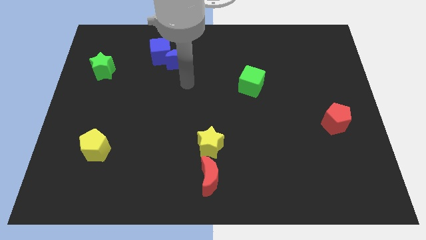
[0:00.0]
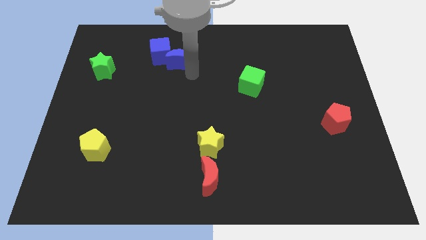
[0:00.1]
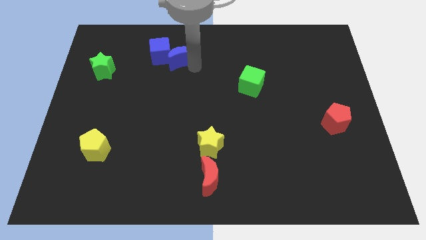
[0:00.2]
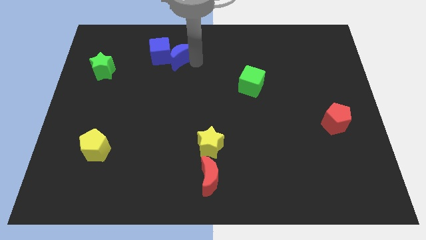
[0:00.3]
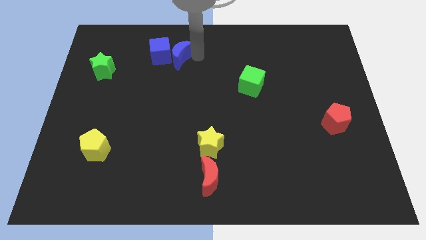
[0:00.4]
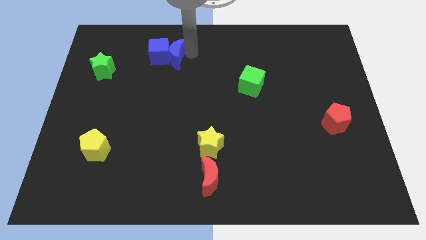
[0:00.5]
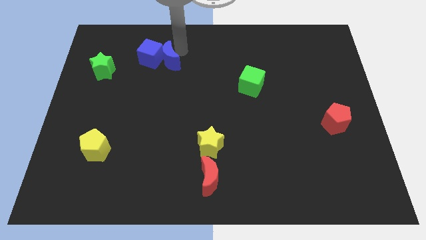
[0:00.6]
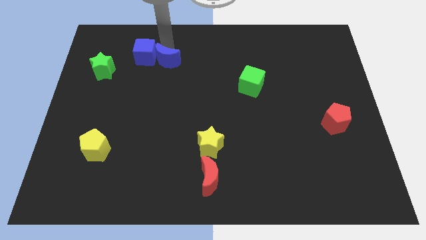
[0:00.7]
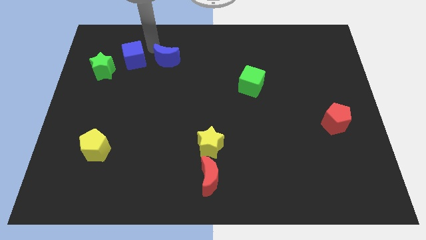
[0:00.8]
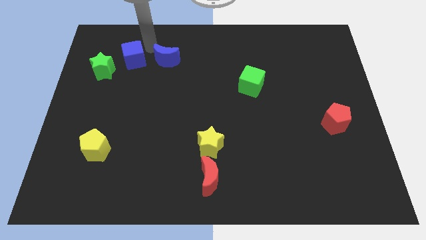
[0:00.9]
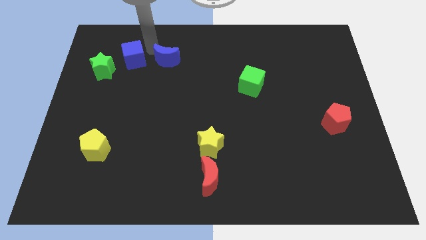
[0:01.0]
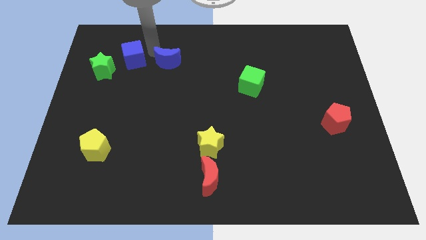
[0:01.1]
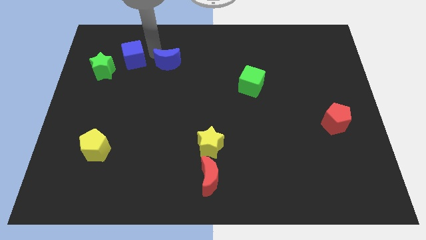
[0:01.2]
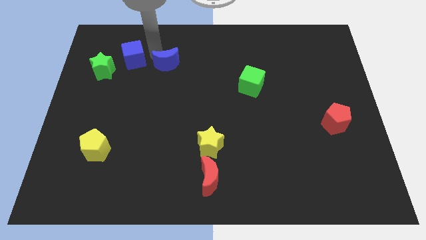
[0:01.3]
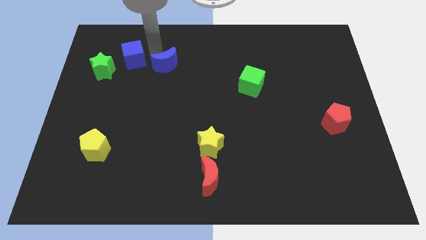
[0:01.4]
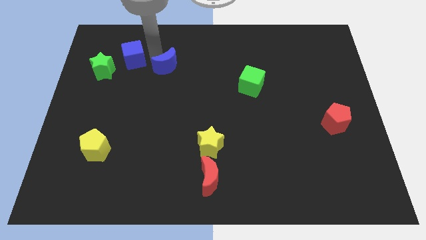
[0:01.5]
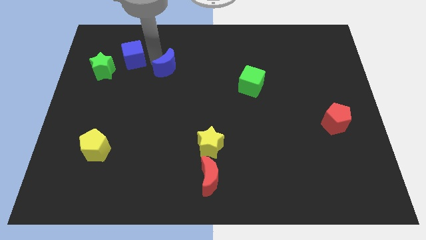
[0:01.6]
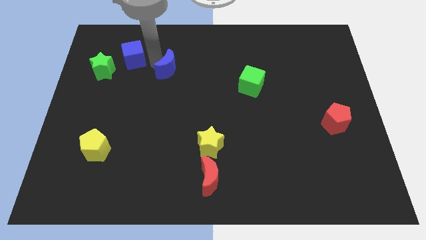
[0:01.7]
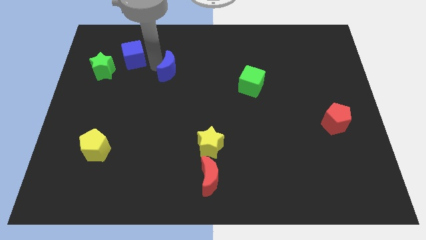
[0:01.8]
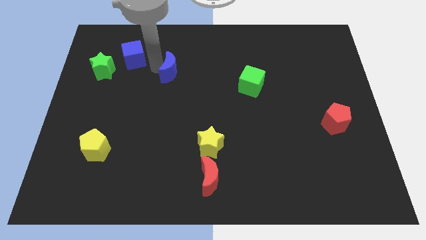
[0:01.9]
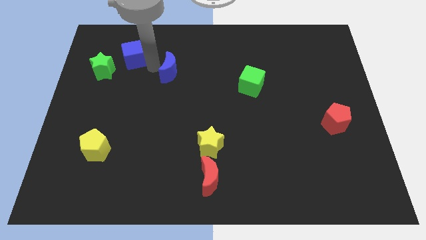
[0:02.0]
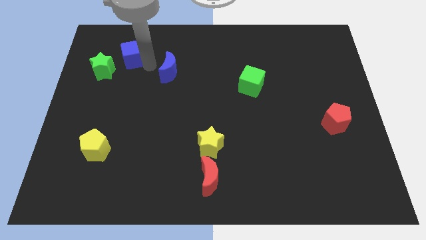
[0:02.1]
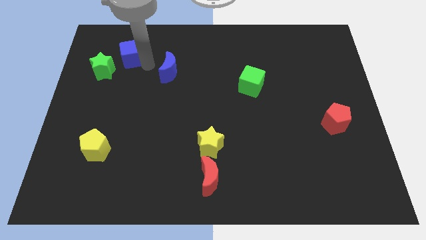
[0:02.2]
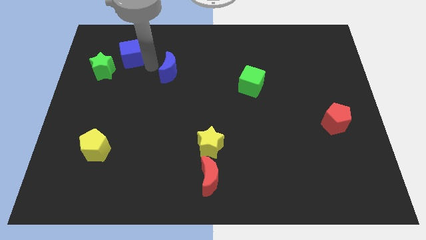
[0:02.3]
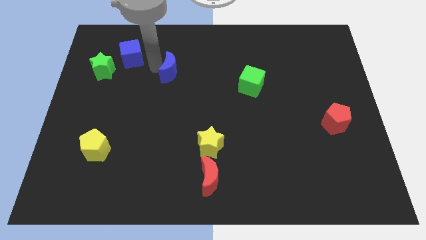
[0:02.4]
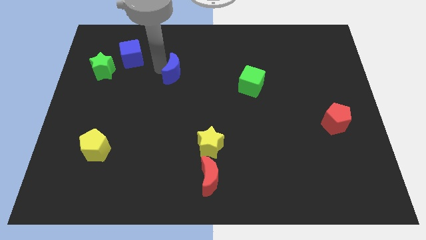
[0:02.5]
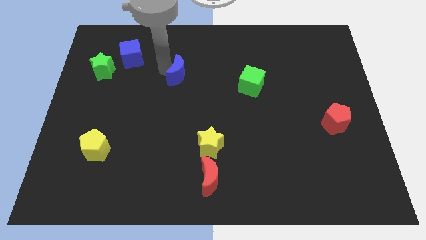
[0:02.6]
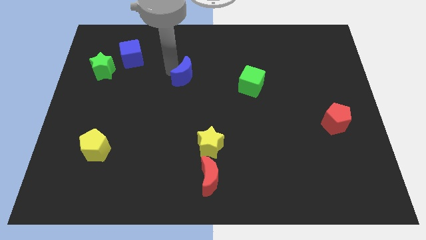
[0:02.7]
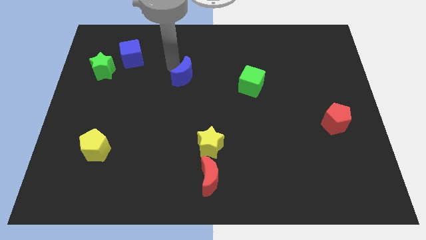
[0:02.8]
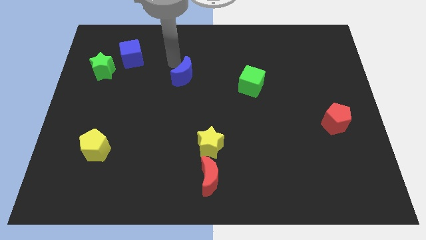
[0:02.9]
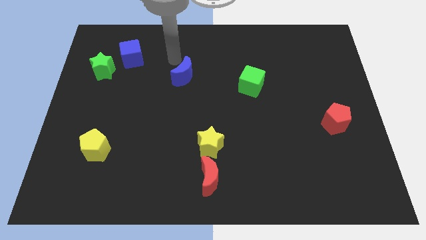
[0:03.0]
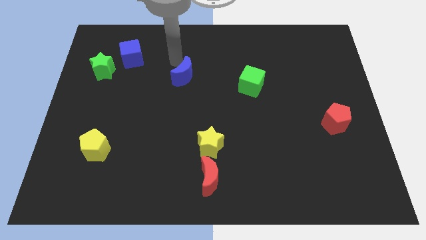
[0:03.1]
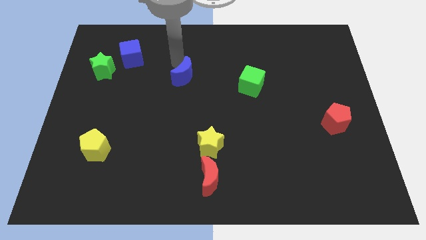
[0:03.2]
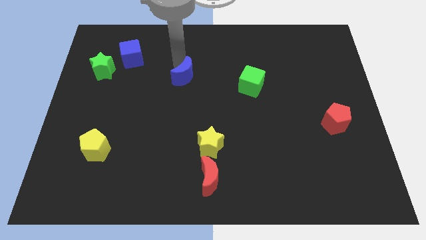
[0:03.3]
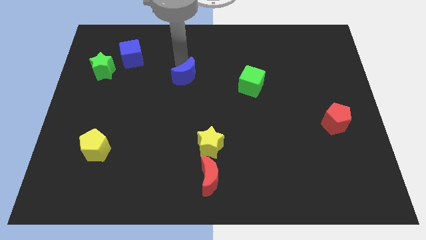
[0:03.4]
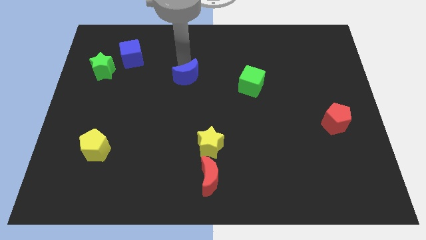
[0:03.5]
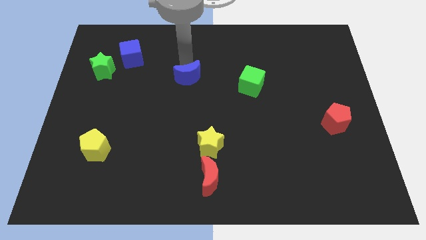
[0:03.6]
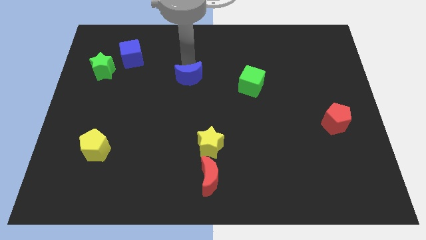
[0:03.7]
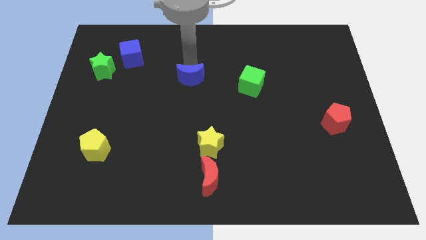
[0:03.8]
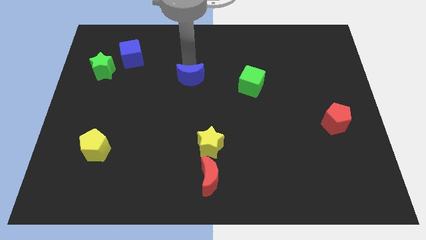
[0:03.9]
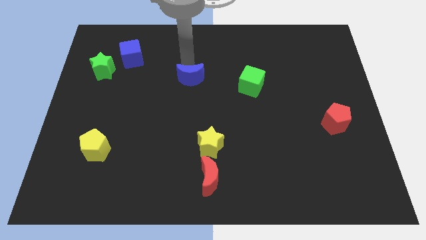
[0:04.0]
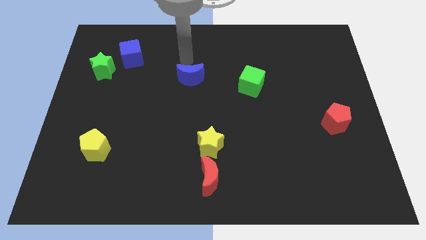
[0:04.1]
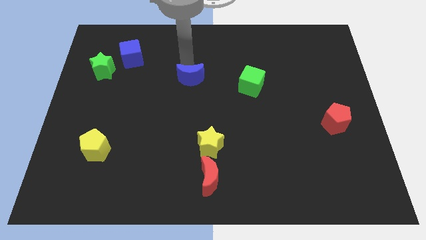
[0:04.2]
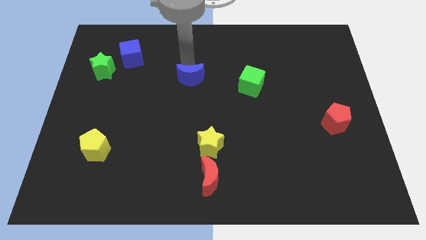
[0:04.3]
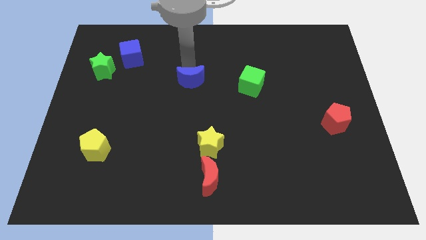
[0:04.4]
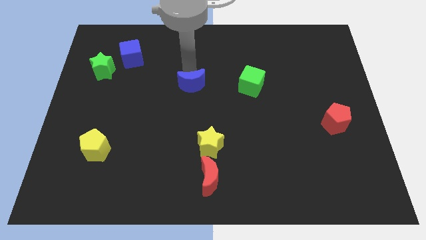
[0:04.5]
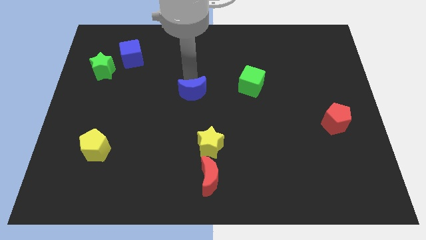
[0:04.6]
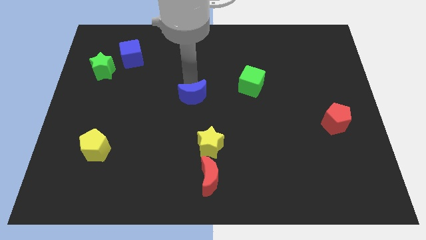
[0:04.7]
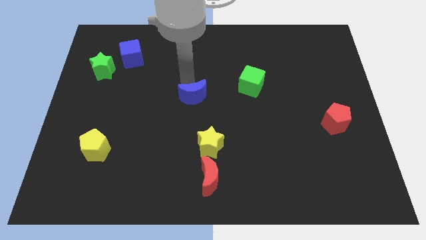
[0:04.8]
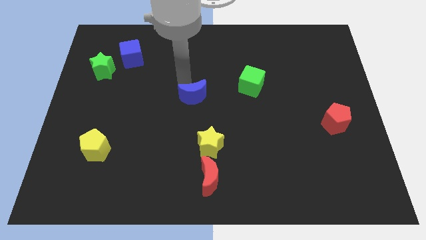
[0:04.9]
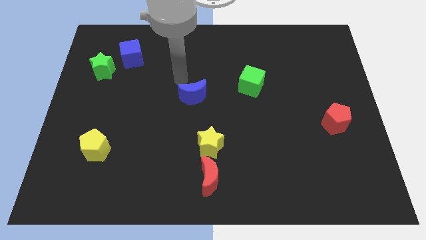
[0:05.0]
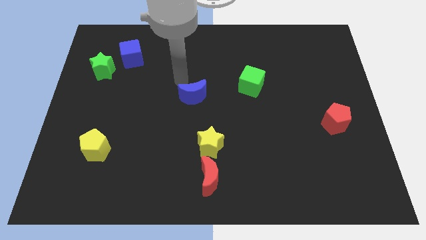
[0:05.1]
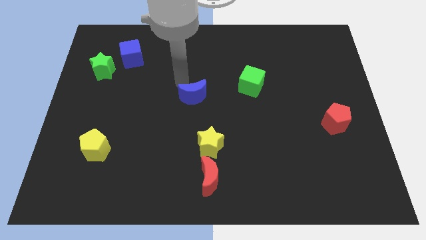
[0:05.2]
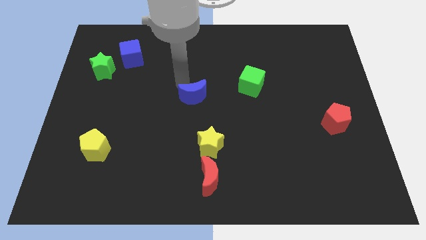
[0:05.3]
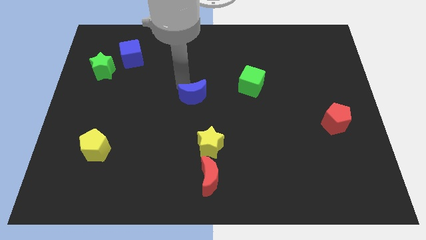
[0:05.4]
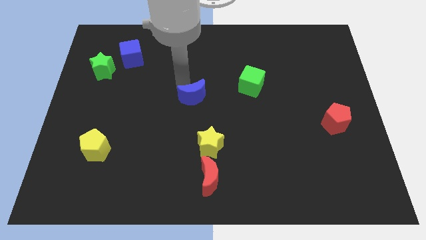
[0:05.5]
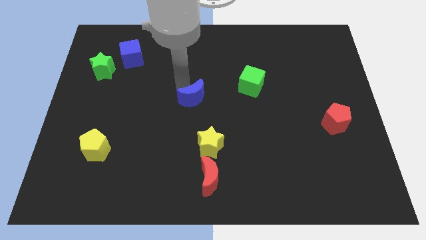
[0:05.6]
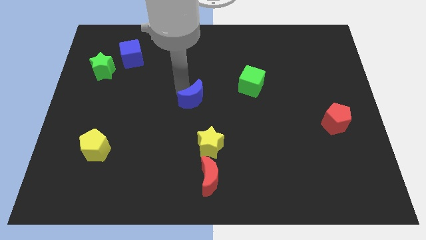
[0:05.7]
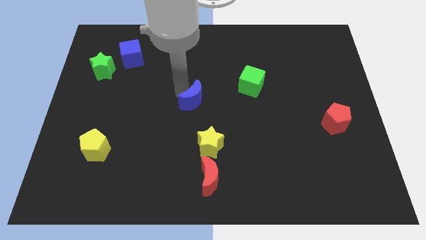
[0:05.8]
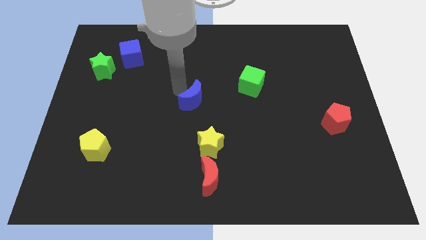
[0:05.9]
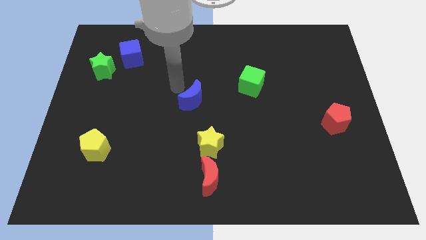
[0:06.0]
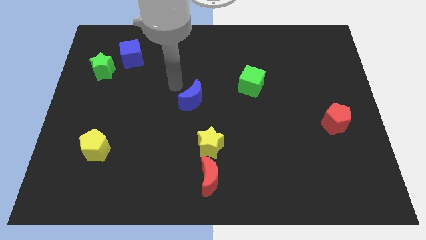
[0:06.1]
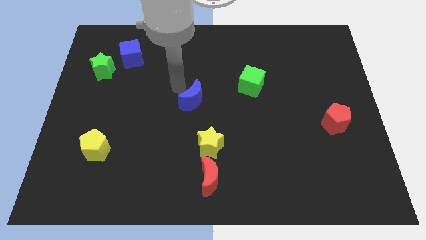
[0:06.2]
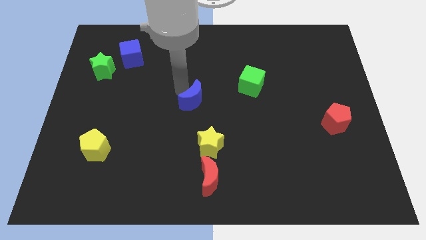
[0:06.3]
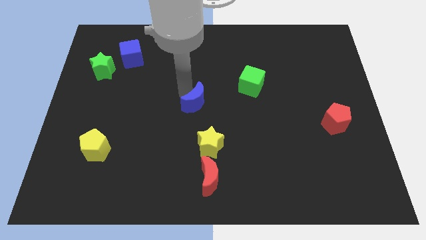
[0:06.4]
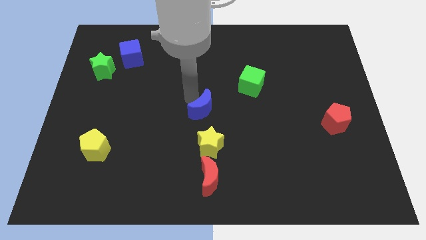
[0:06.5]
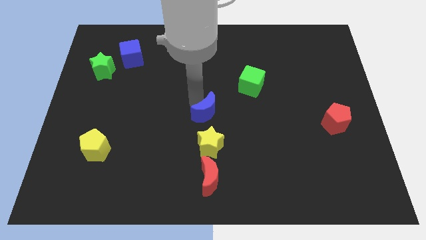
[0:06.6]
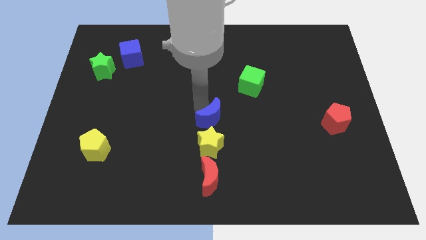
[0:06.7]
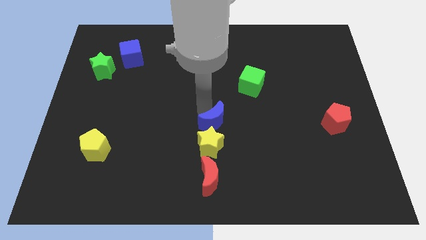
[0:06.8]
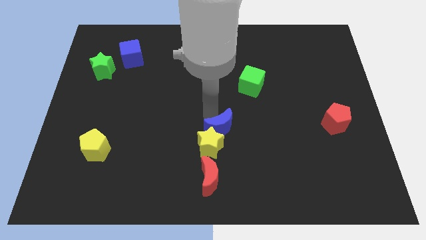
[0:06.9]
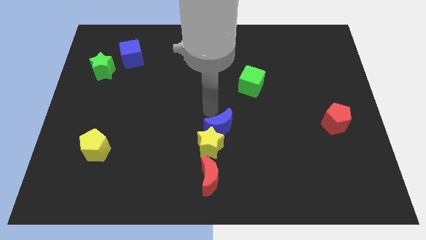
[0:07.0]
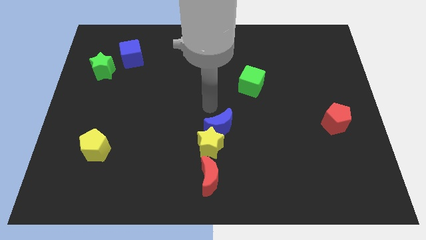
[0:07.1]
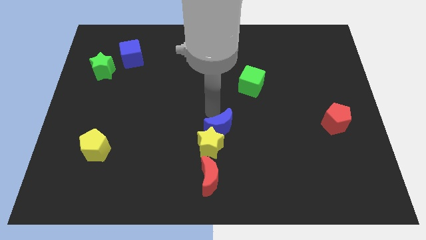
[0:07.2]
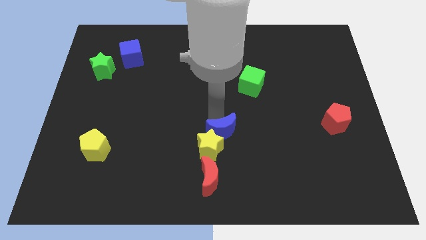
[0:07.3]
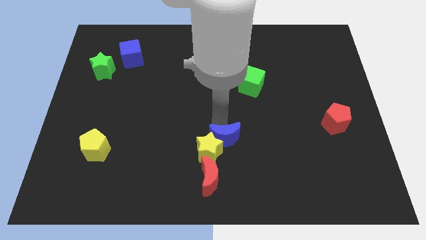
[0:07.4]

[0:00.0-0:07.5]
slide the blue moon diagonally up and to the right of the red moon
